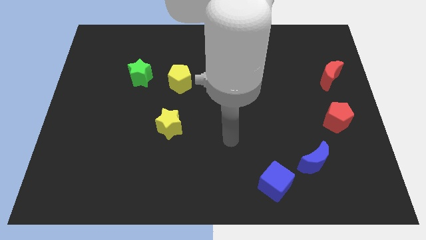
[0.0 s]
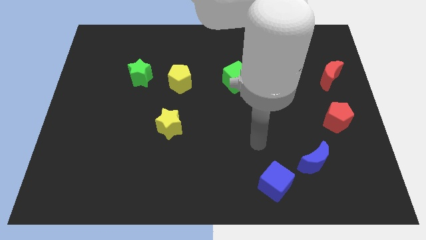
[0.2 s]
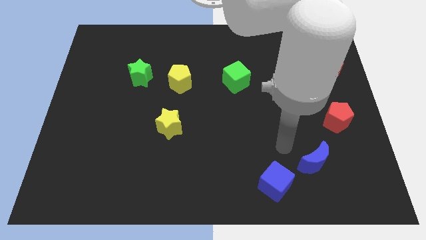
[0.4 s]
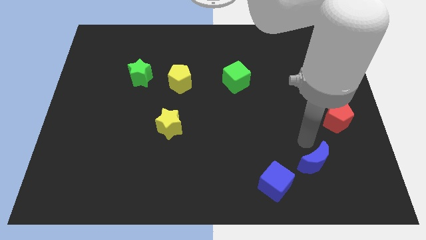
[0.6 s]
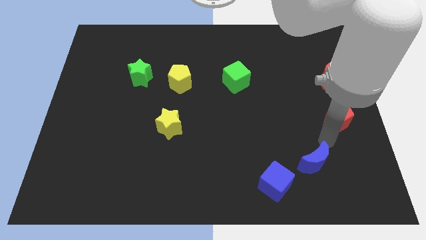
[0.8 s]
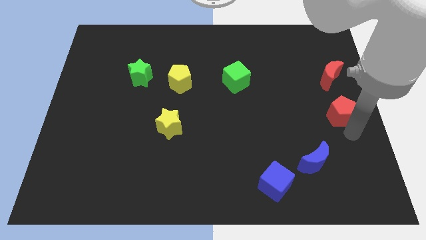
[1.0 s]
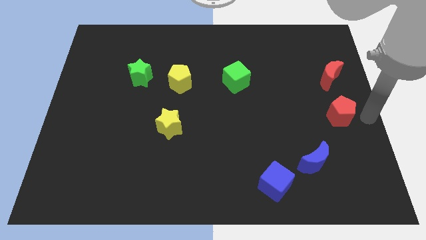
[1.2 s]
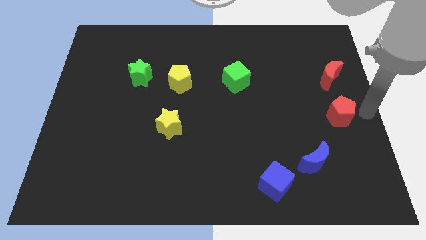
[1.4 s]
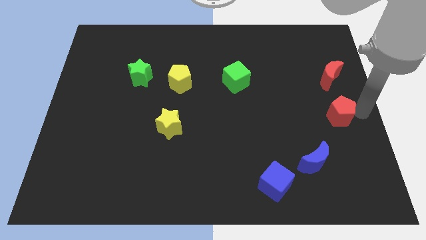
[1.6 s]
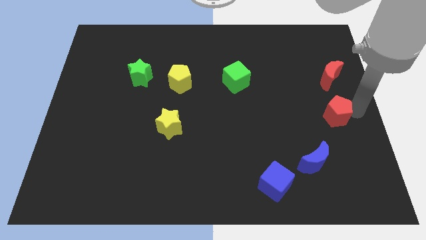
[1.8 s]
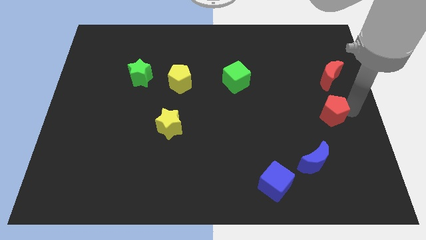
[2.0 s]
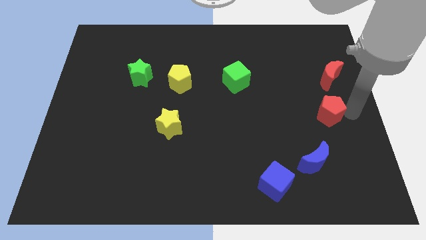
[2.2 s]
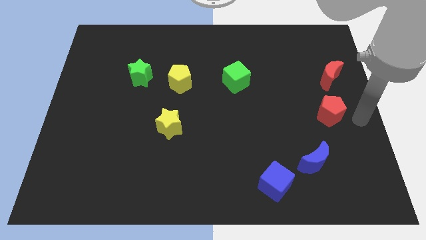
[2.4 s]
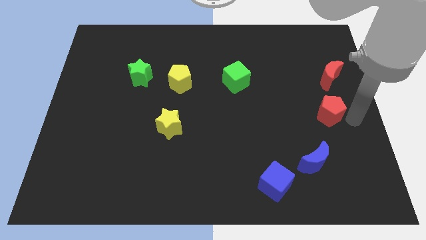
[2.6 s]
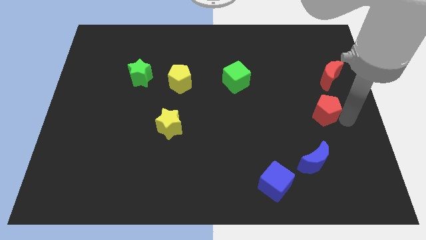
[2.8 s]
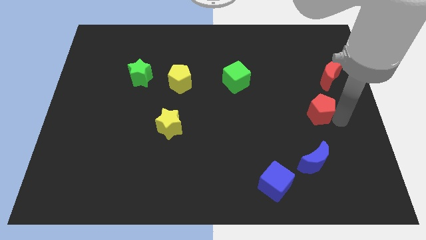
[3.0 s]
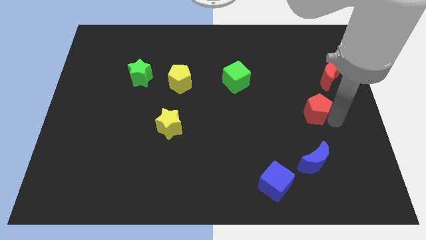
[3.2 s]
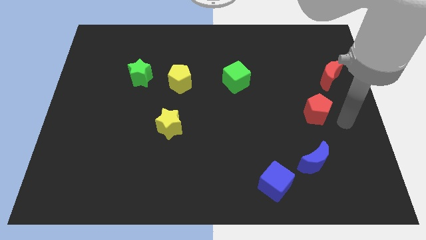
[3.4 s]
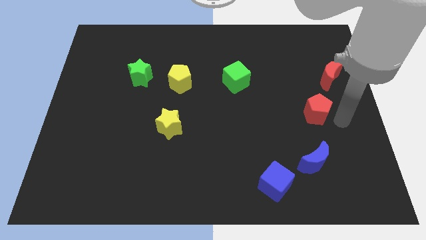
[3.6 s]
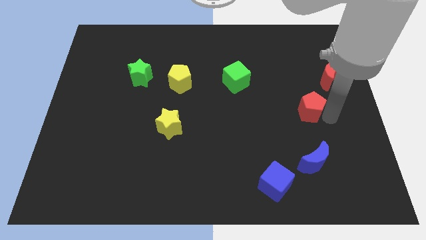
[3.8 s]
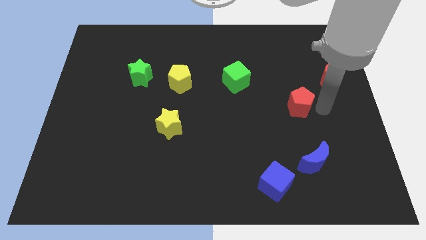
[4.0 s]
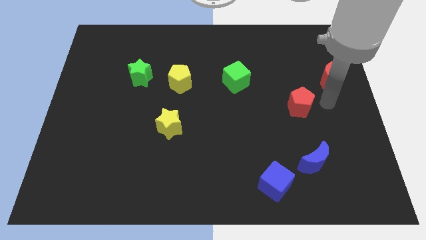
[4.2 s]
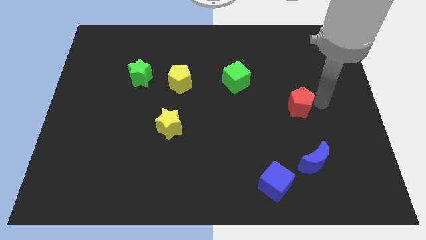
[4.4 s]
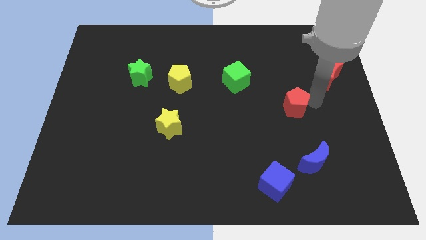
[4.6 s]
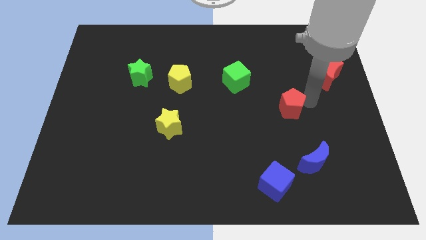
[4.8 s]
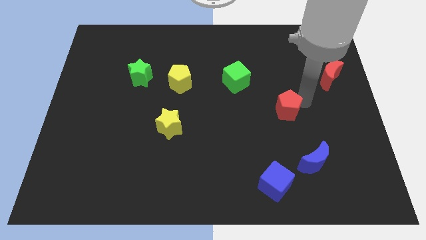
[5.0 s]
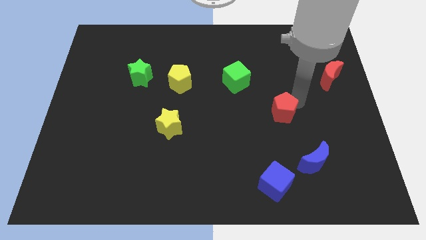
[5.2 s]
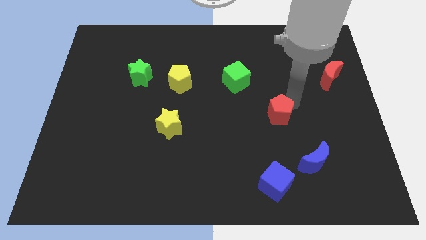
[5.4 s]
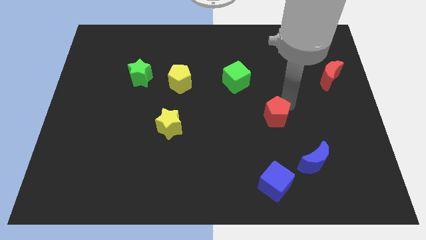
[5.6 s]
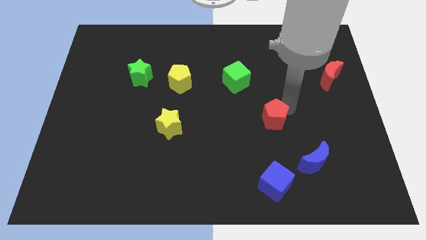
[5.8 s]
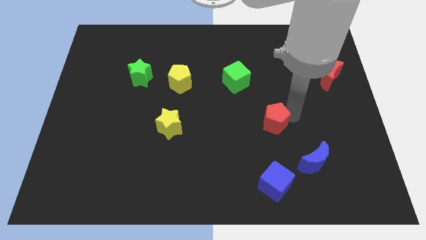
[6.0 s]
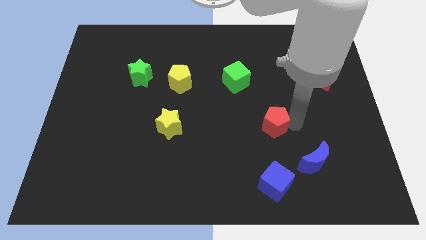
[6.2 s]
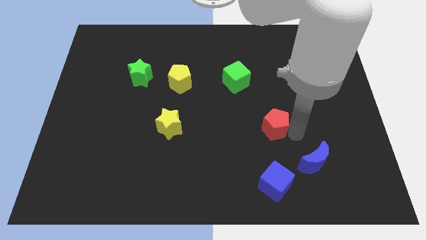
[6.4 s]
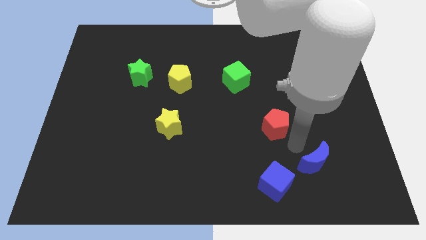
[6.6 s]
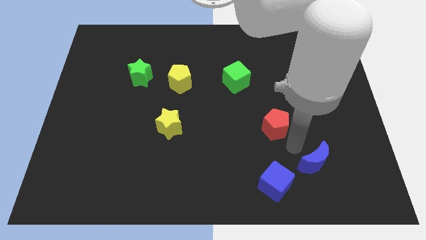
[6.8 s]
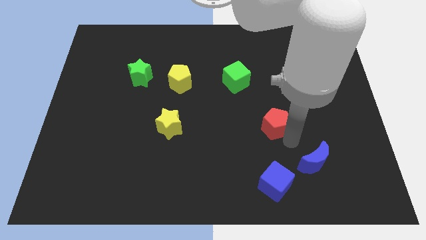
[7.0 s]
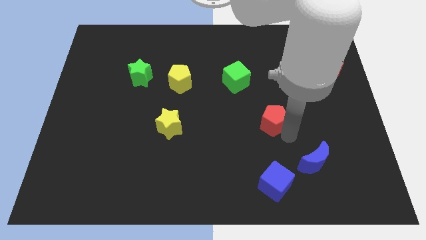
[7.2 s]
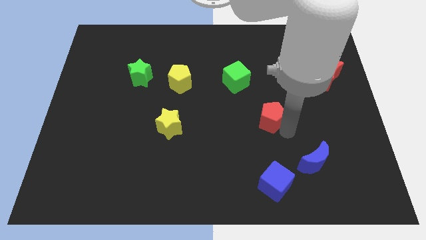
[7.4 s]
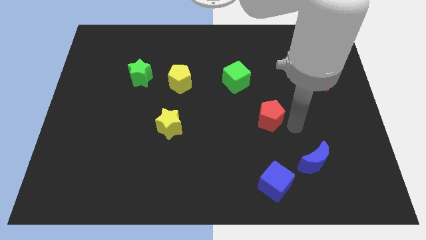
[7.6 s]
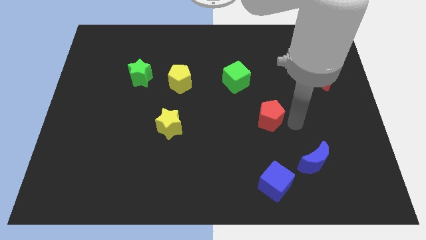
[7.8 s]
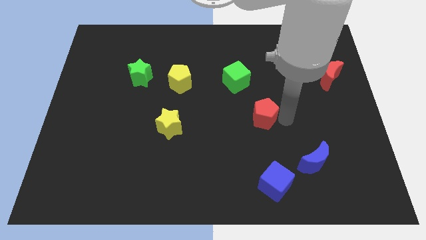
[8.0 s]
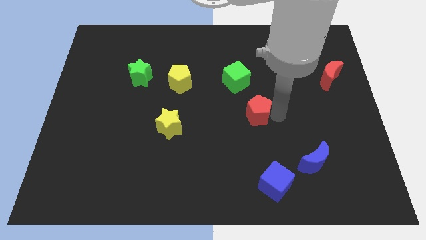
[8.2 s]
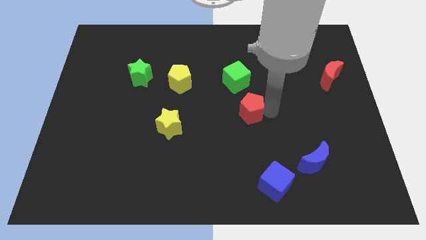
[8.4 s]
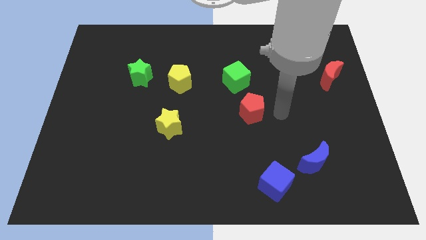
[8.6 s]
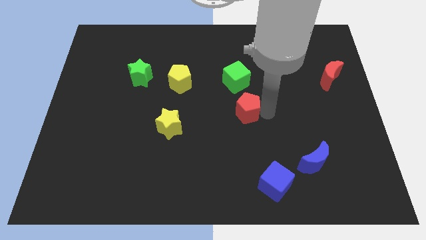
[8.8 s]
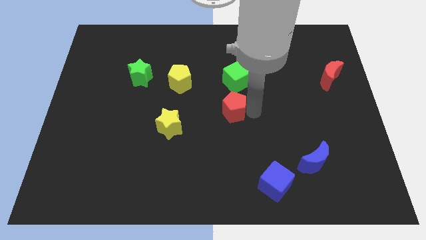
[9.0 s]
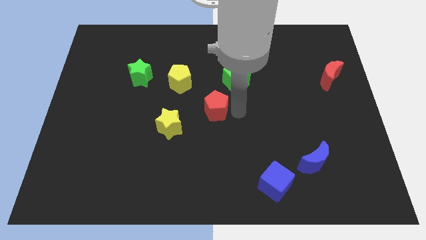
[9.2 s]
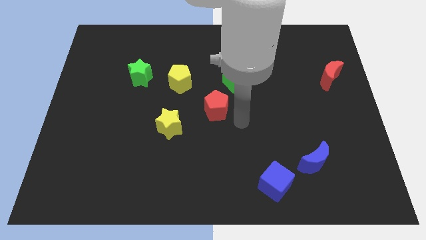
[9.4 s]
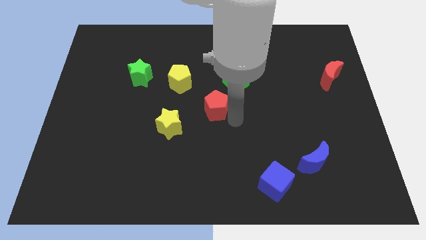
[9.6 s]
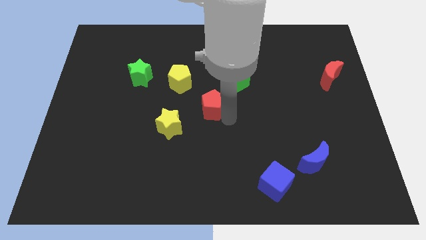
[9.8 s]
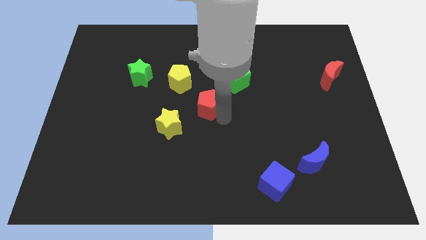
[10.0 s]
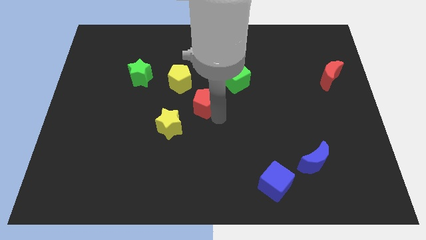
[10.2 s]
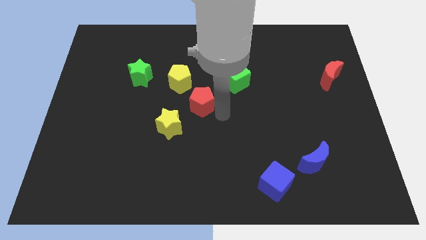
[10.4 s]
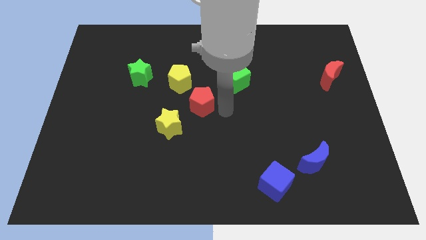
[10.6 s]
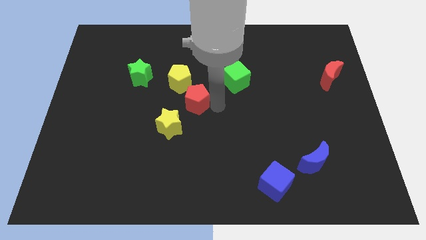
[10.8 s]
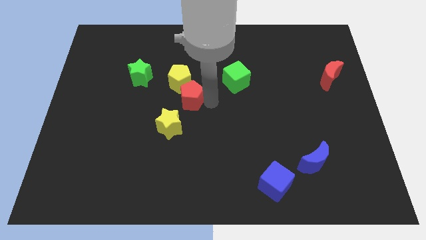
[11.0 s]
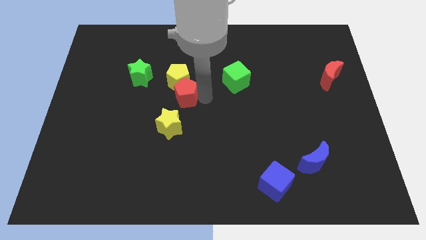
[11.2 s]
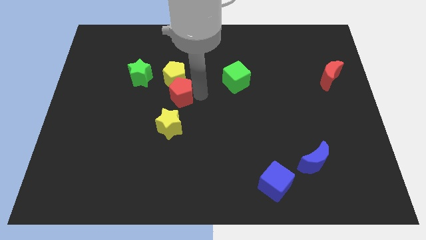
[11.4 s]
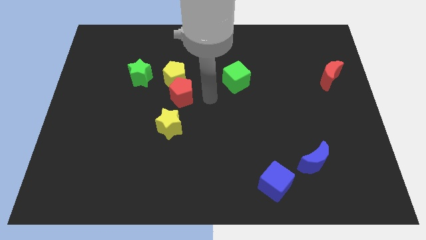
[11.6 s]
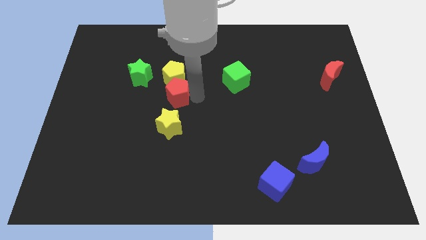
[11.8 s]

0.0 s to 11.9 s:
move the red pentagon diagonally down and to the right of the green star
